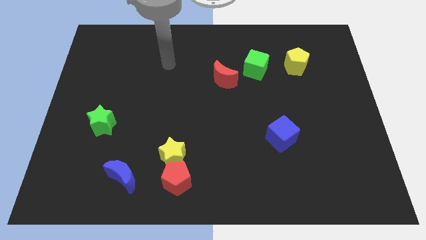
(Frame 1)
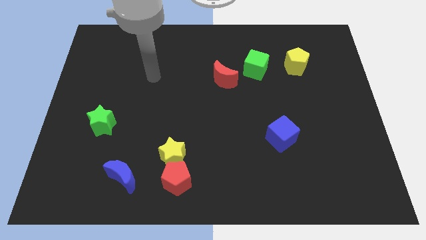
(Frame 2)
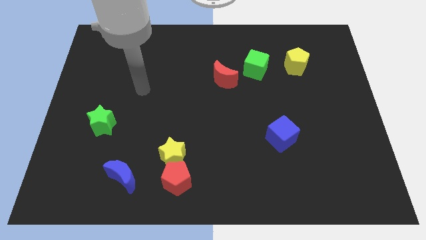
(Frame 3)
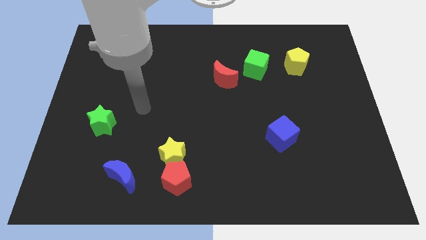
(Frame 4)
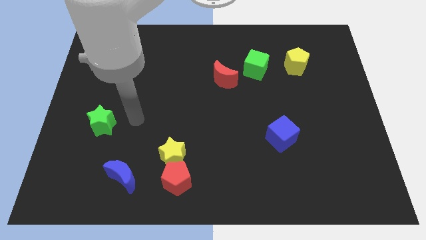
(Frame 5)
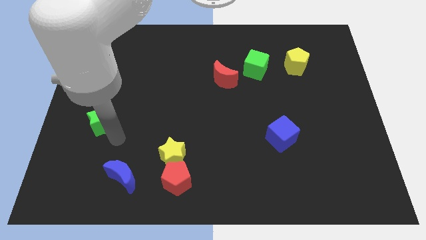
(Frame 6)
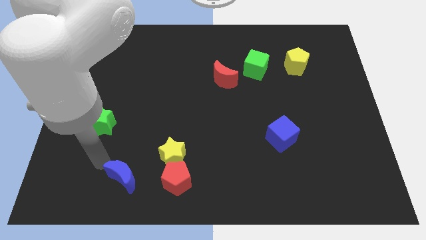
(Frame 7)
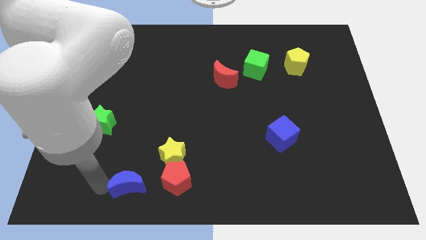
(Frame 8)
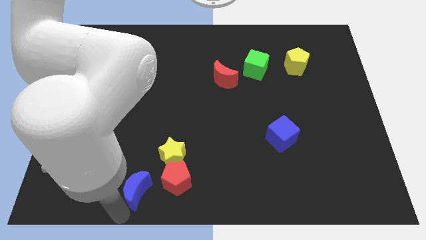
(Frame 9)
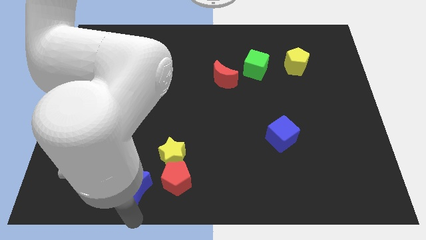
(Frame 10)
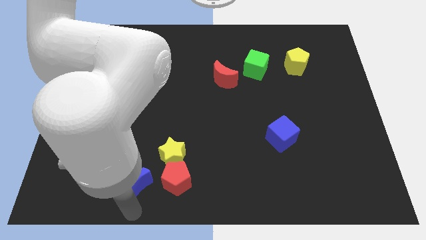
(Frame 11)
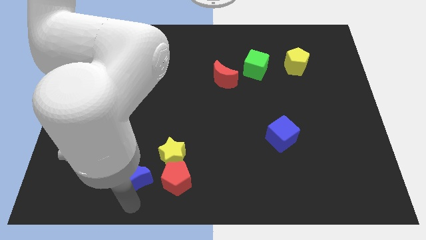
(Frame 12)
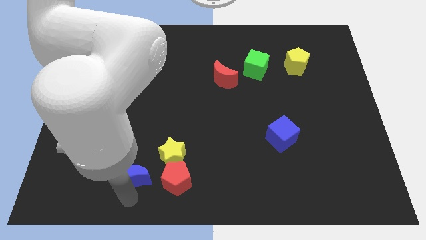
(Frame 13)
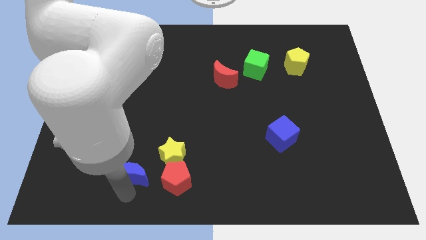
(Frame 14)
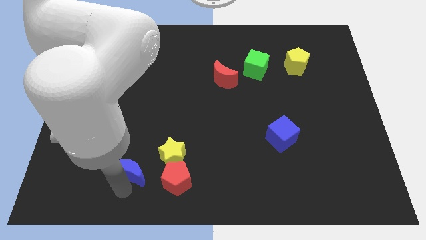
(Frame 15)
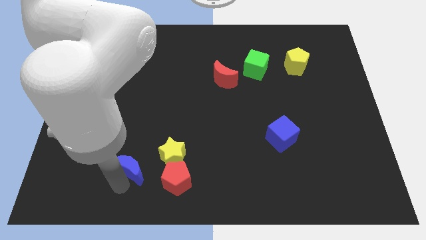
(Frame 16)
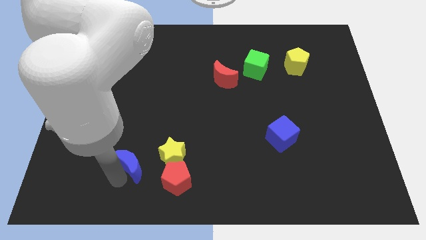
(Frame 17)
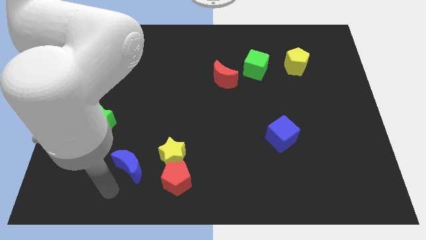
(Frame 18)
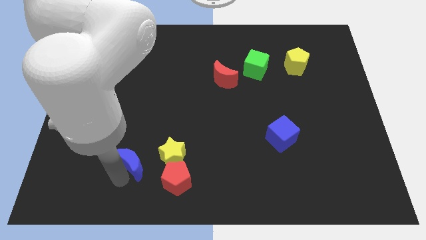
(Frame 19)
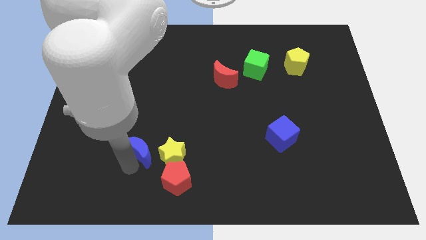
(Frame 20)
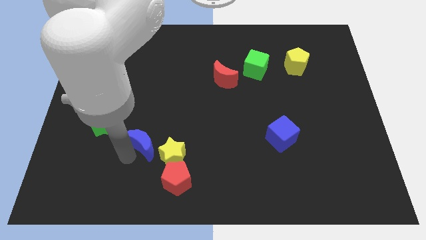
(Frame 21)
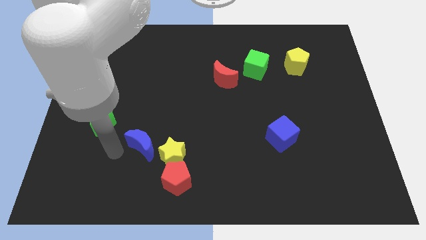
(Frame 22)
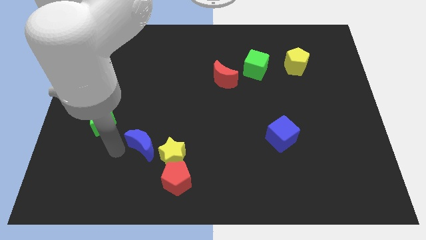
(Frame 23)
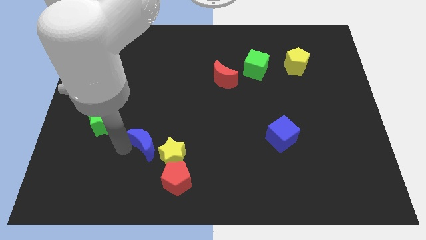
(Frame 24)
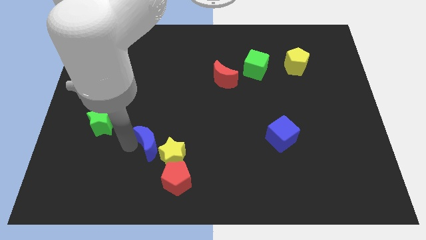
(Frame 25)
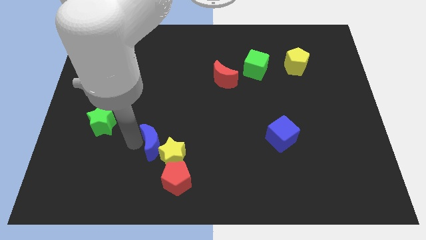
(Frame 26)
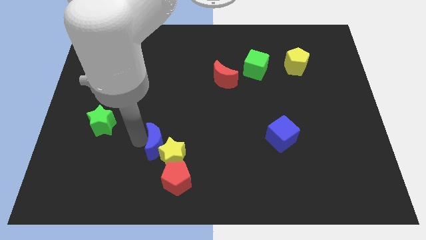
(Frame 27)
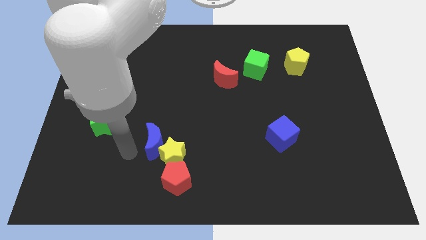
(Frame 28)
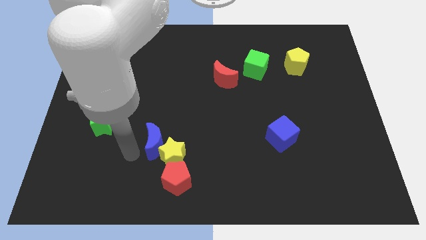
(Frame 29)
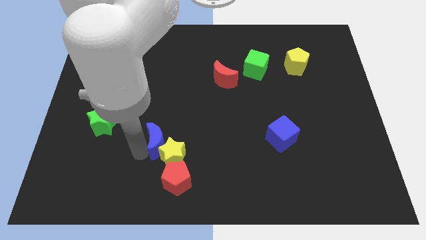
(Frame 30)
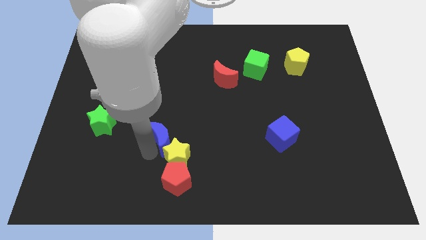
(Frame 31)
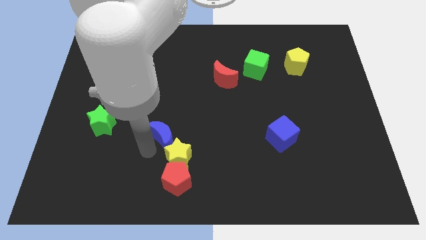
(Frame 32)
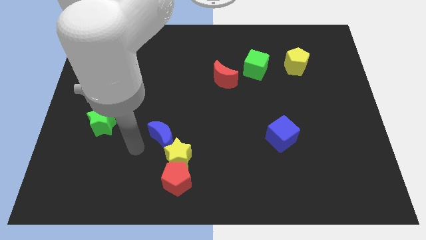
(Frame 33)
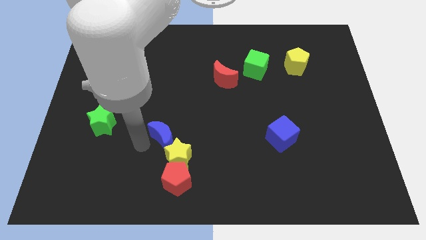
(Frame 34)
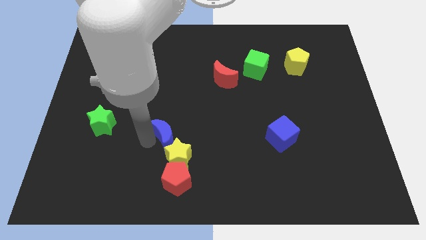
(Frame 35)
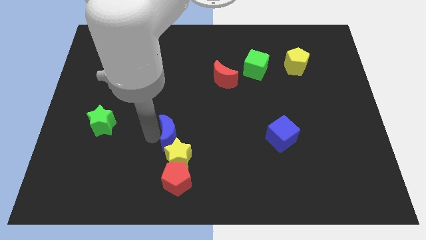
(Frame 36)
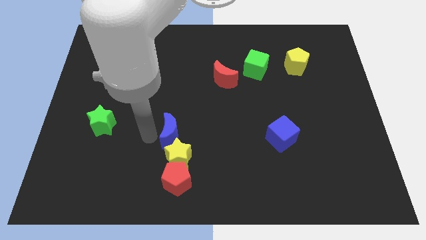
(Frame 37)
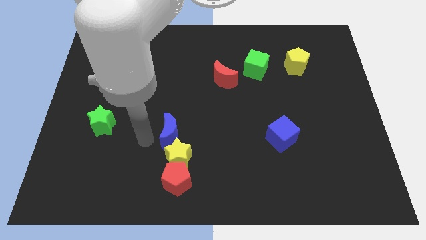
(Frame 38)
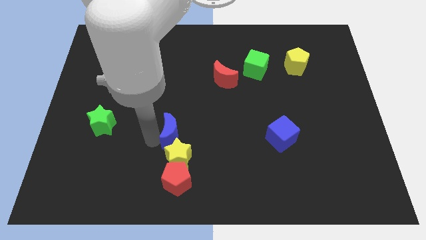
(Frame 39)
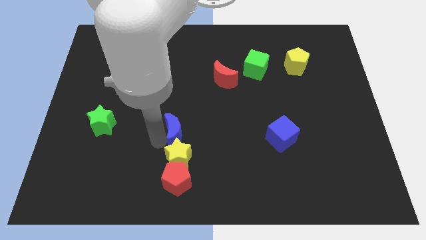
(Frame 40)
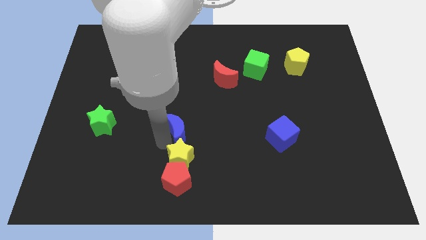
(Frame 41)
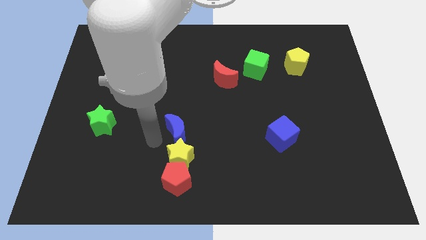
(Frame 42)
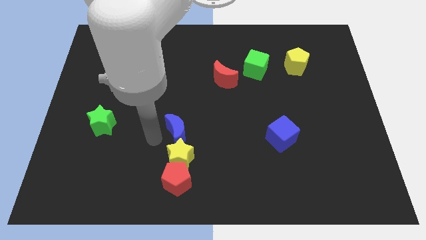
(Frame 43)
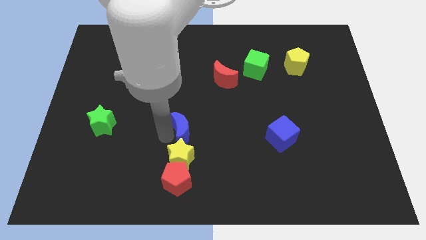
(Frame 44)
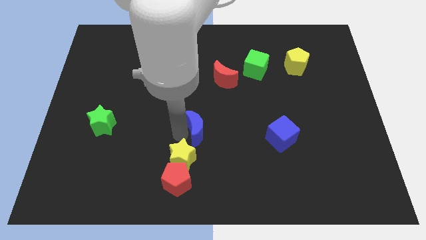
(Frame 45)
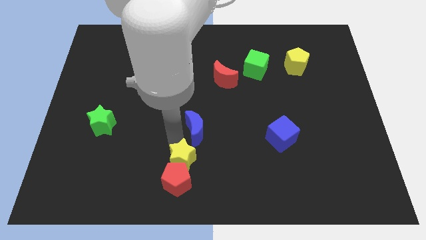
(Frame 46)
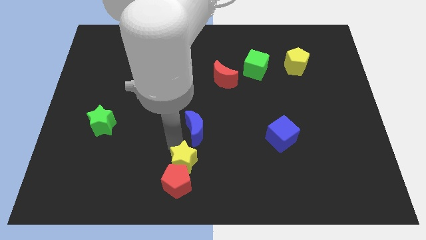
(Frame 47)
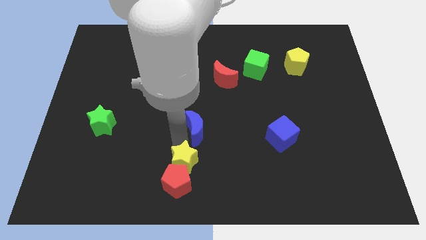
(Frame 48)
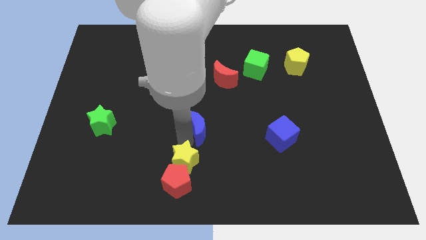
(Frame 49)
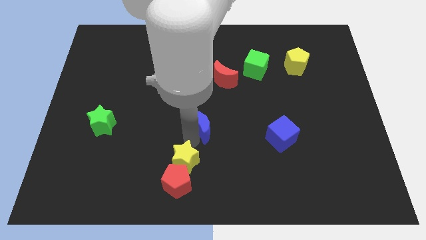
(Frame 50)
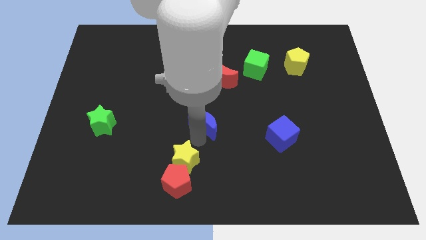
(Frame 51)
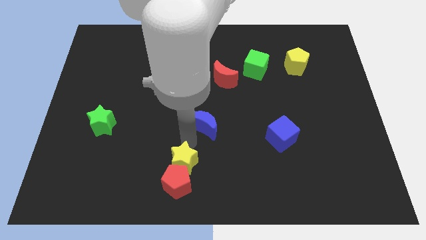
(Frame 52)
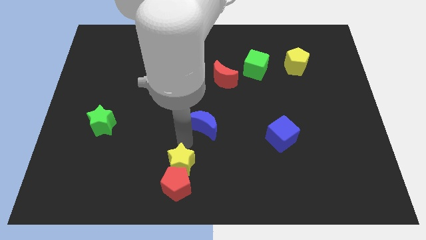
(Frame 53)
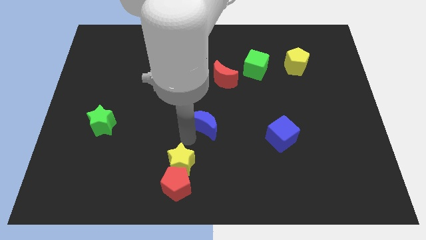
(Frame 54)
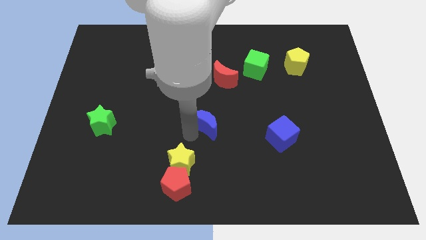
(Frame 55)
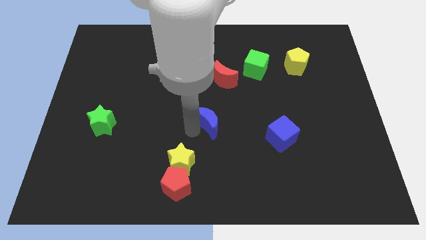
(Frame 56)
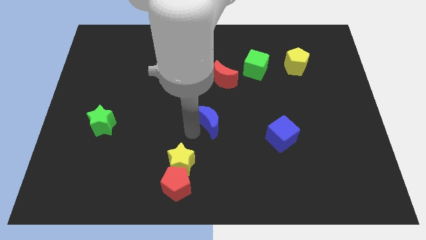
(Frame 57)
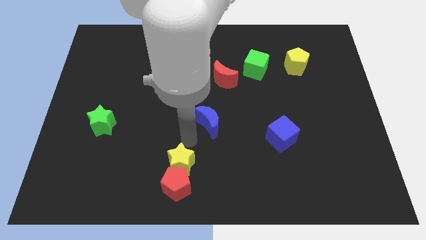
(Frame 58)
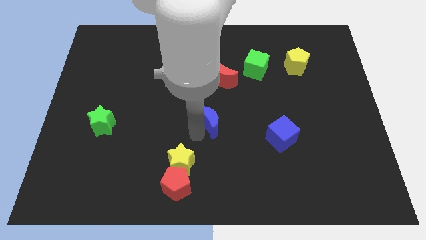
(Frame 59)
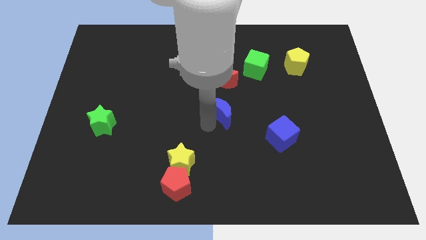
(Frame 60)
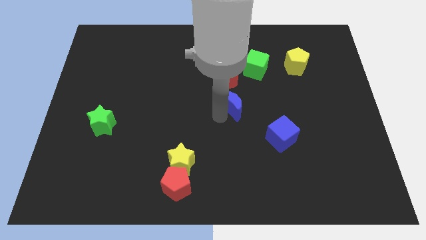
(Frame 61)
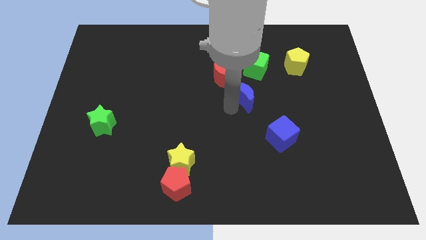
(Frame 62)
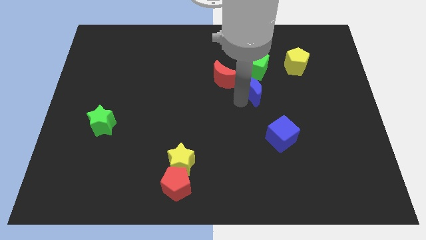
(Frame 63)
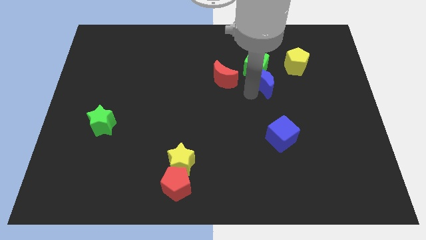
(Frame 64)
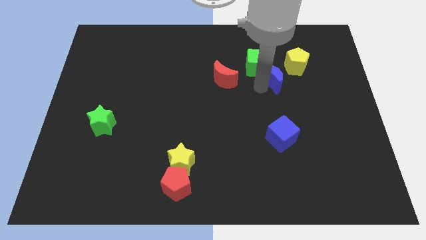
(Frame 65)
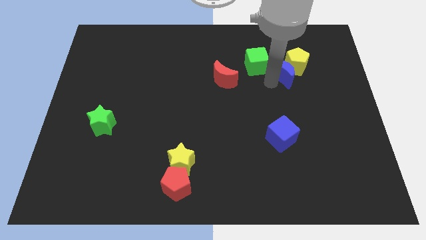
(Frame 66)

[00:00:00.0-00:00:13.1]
push the blue moon towards the yellow pentagon

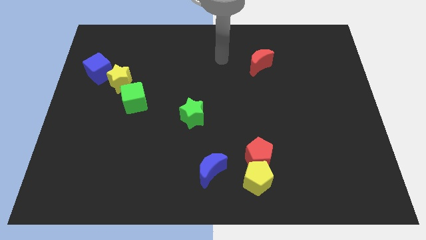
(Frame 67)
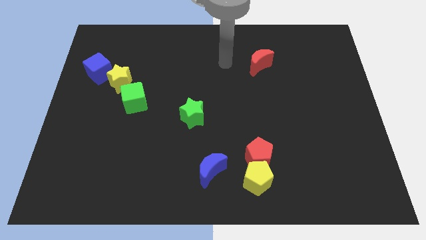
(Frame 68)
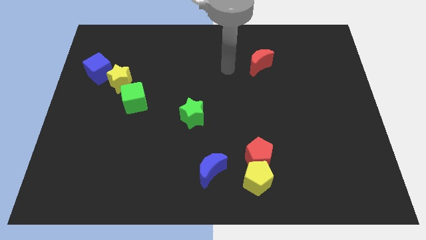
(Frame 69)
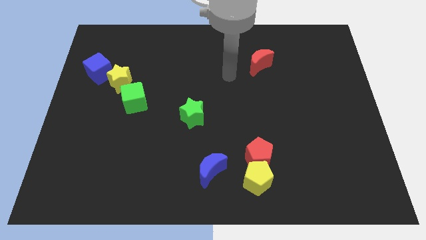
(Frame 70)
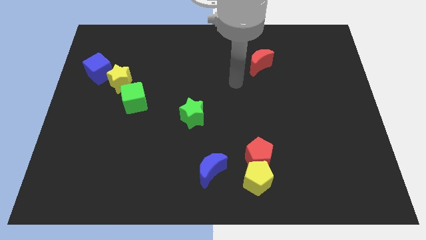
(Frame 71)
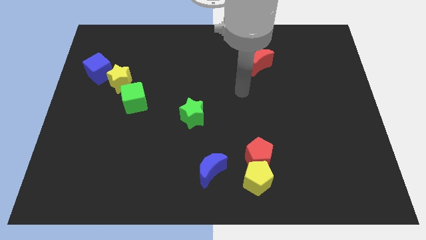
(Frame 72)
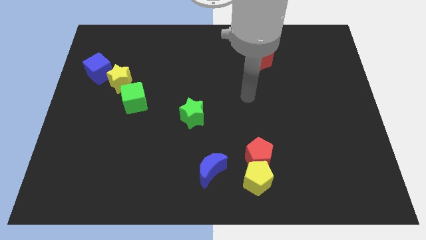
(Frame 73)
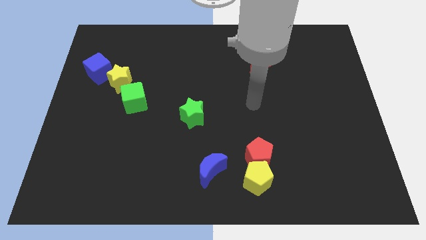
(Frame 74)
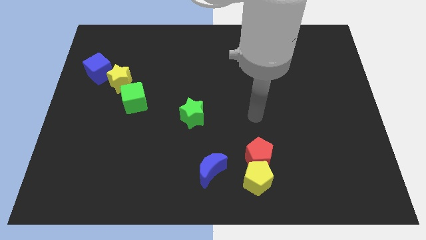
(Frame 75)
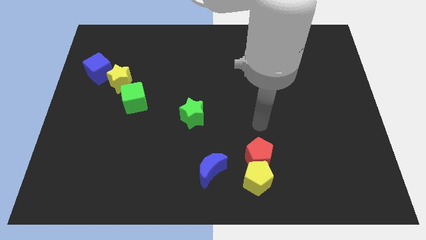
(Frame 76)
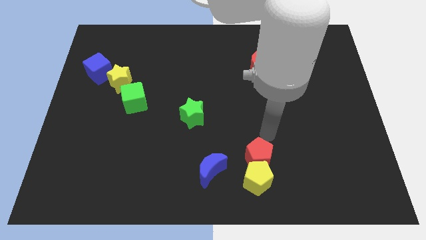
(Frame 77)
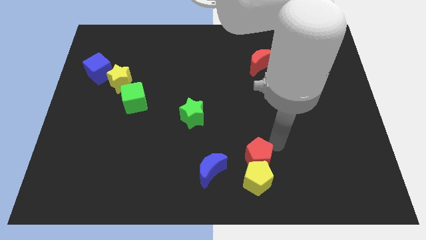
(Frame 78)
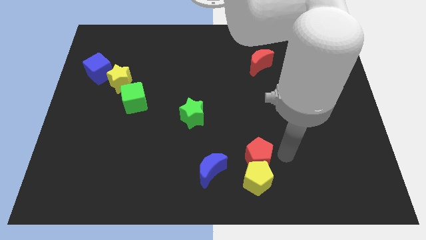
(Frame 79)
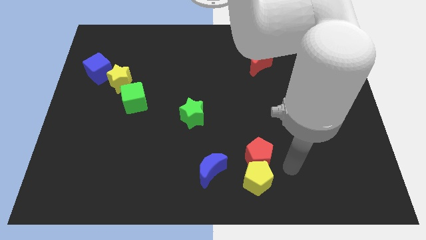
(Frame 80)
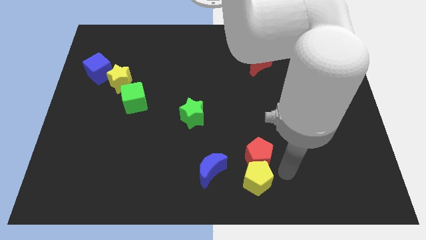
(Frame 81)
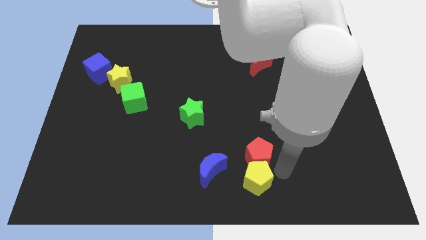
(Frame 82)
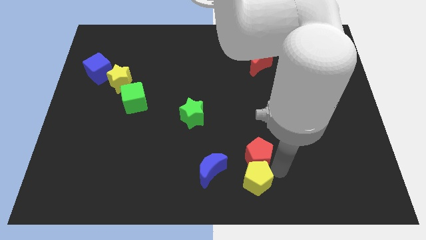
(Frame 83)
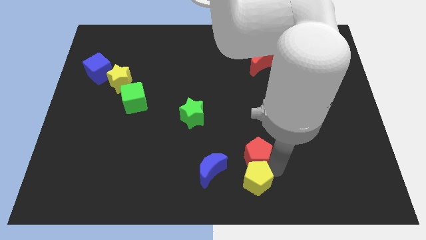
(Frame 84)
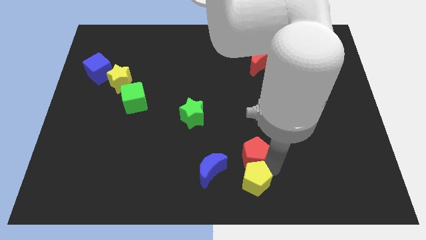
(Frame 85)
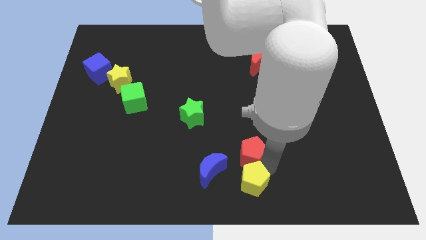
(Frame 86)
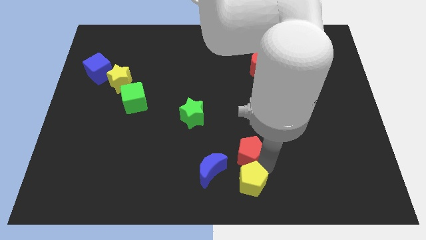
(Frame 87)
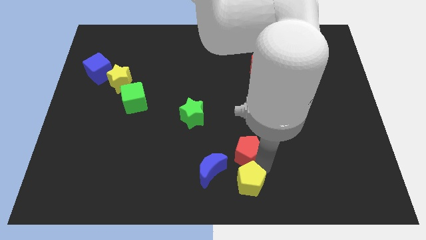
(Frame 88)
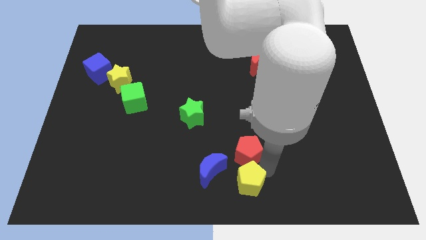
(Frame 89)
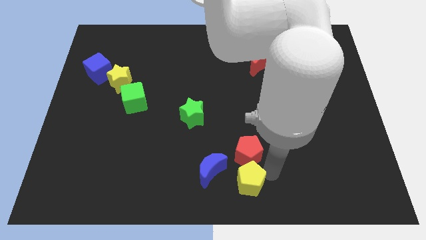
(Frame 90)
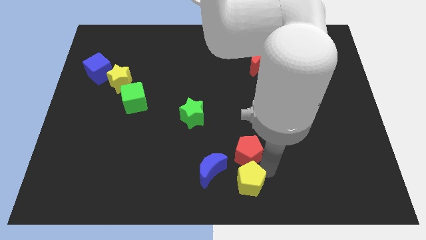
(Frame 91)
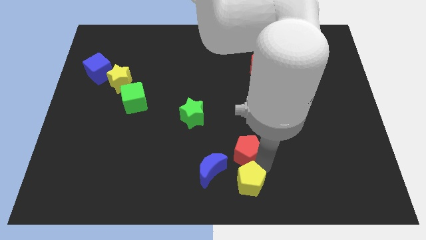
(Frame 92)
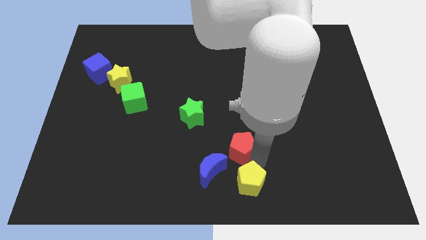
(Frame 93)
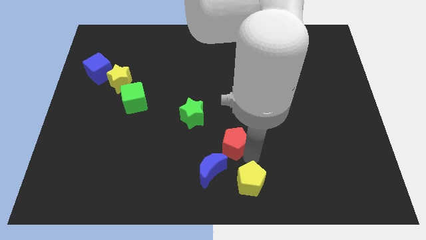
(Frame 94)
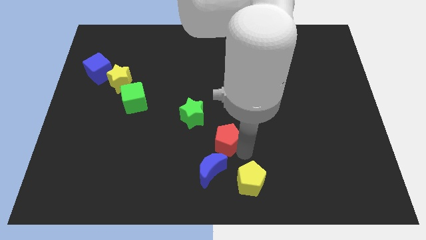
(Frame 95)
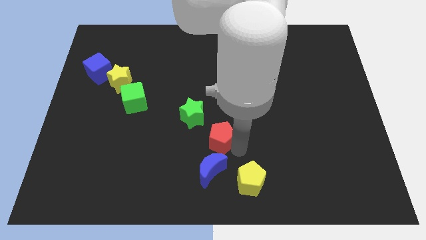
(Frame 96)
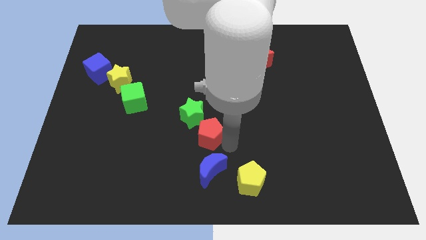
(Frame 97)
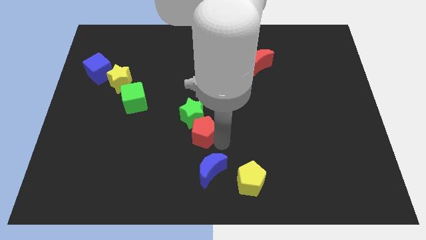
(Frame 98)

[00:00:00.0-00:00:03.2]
move the red pentagon next to the green star
